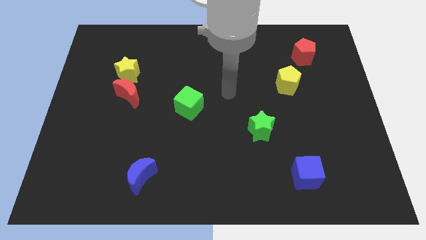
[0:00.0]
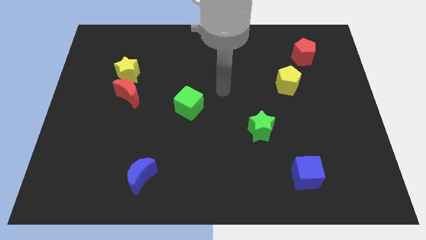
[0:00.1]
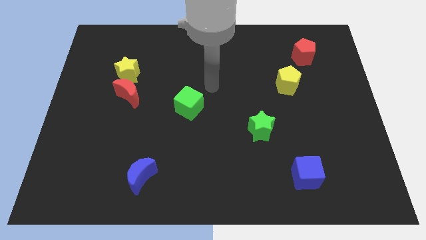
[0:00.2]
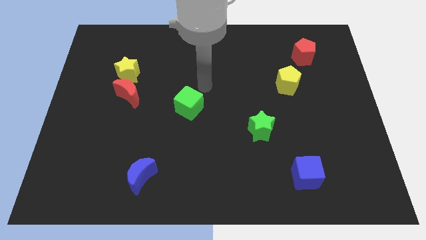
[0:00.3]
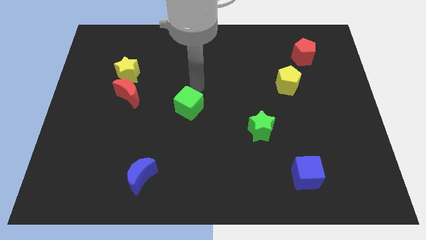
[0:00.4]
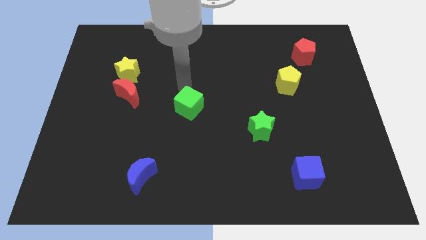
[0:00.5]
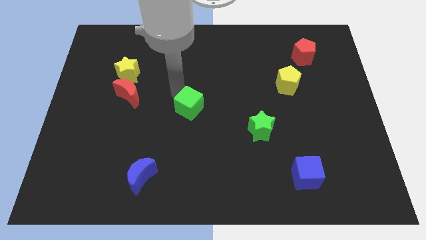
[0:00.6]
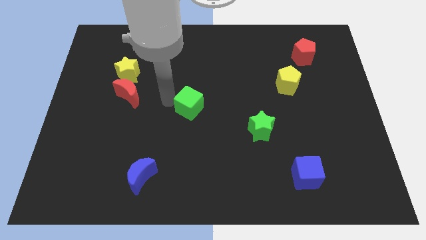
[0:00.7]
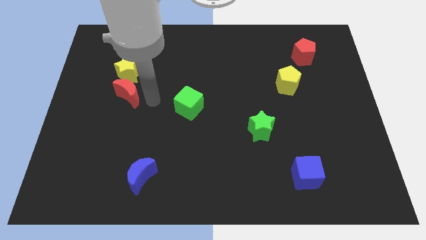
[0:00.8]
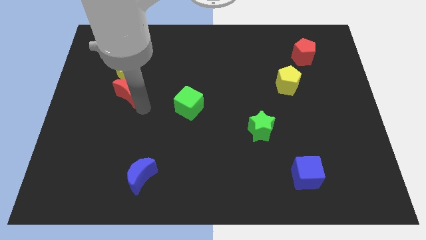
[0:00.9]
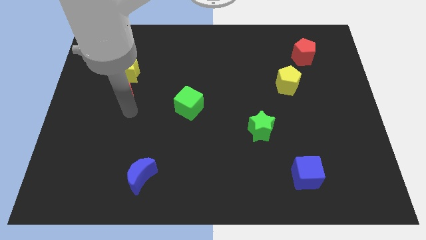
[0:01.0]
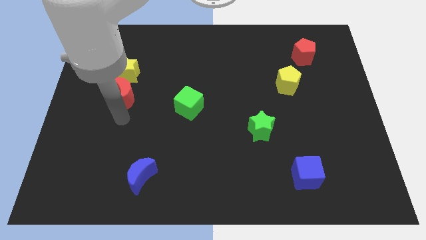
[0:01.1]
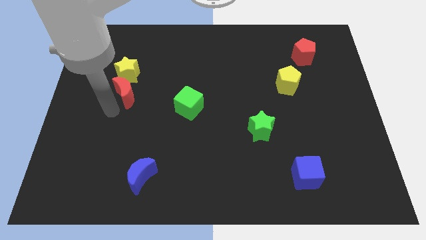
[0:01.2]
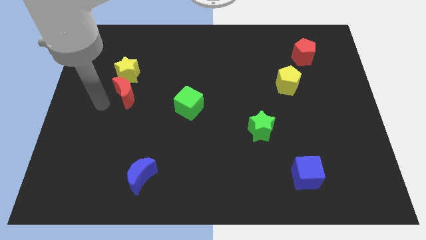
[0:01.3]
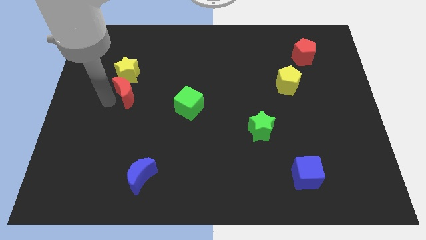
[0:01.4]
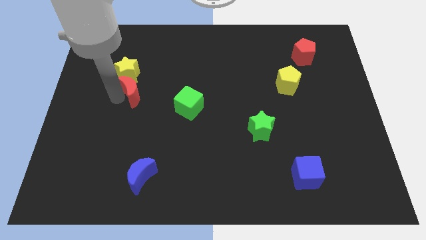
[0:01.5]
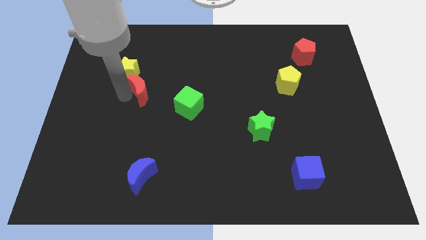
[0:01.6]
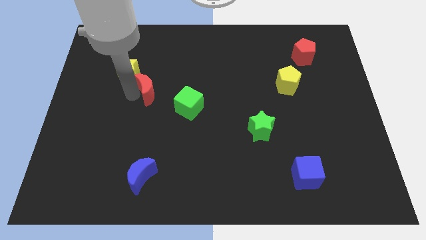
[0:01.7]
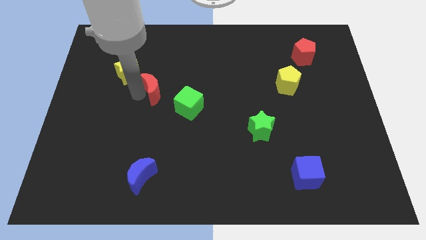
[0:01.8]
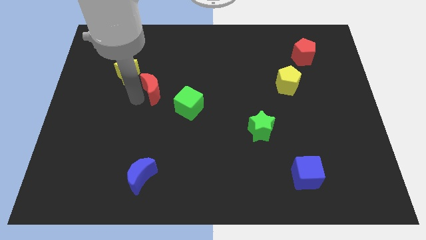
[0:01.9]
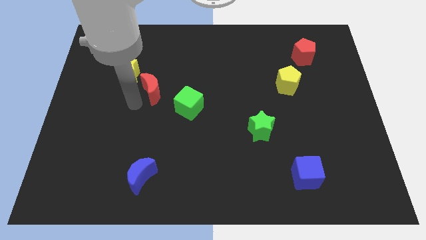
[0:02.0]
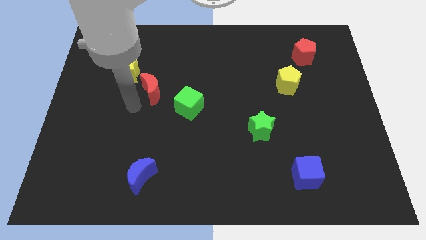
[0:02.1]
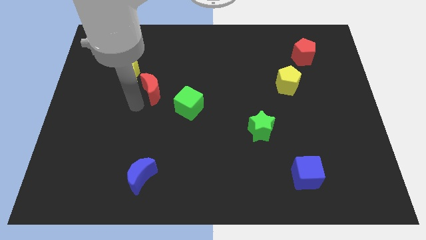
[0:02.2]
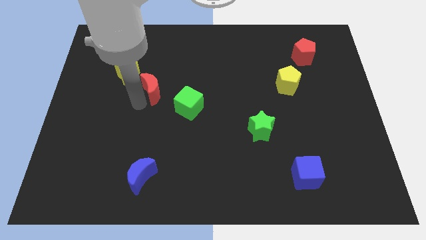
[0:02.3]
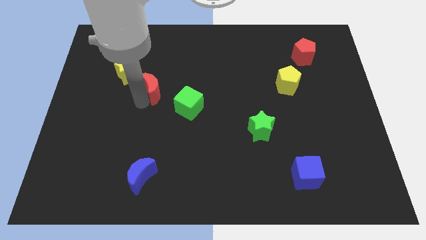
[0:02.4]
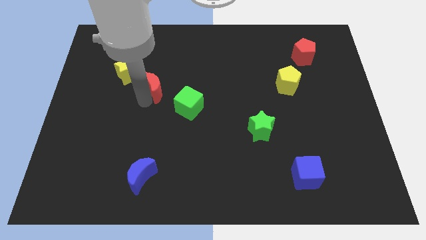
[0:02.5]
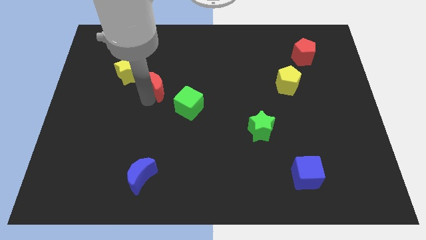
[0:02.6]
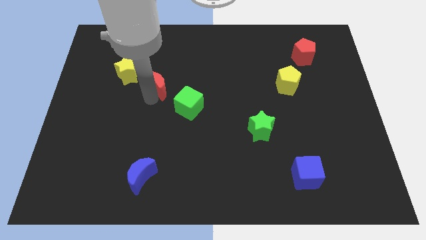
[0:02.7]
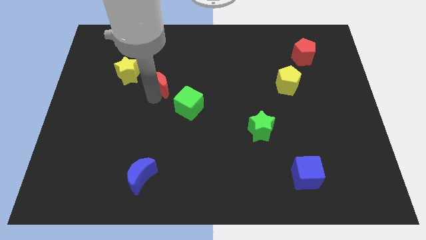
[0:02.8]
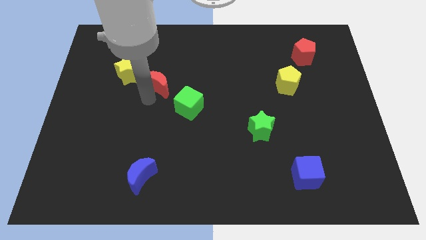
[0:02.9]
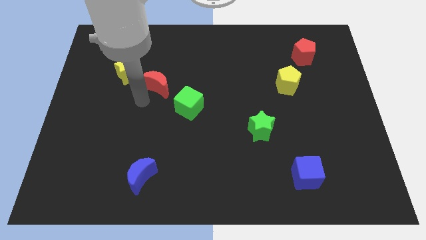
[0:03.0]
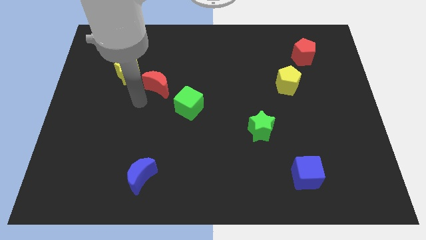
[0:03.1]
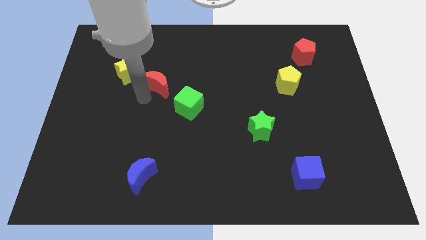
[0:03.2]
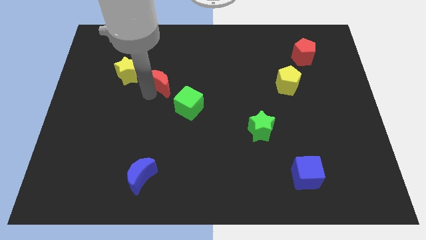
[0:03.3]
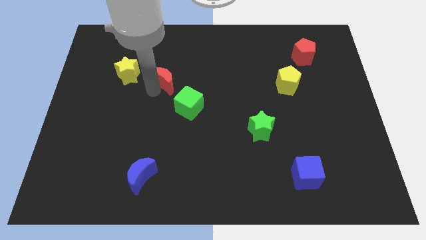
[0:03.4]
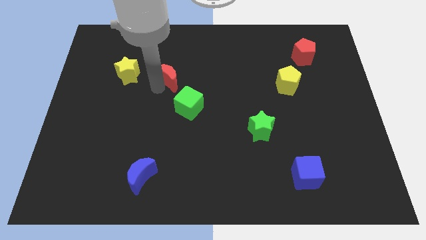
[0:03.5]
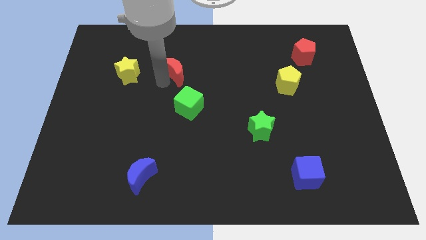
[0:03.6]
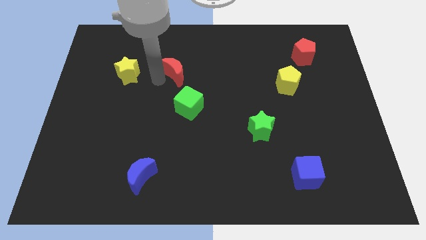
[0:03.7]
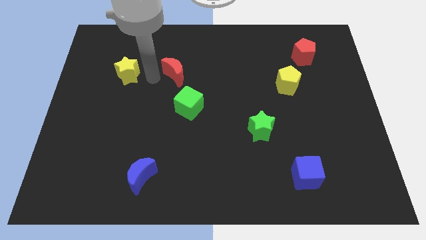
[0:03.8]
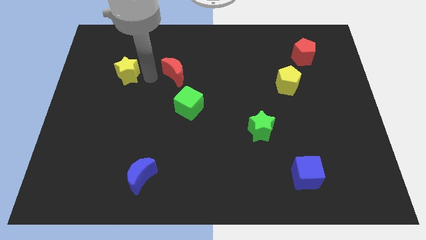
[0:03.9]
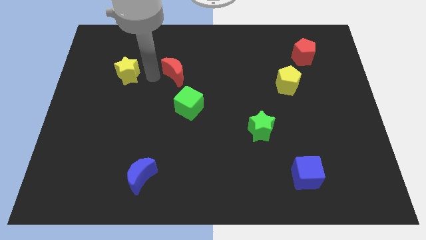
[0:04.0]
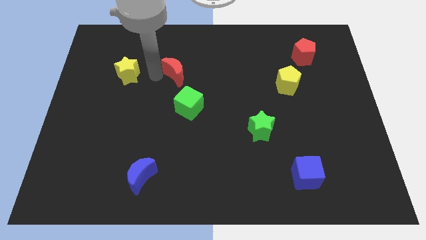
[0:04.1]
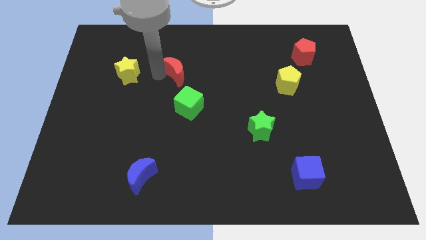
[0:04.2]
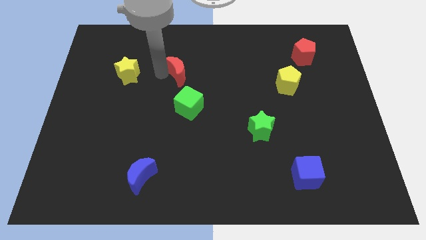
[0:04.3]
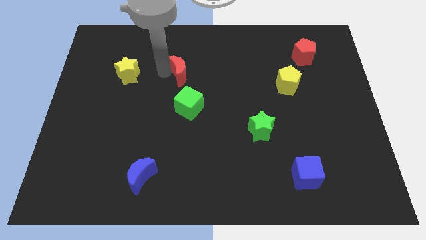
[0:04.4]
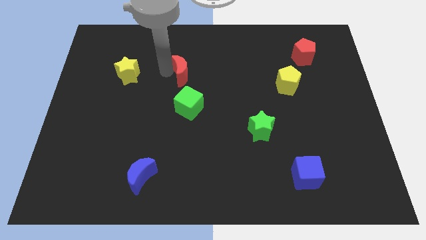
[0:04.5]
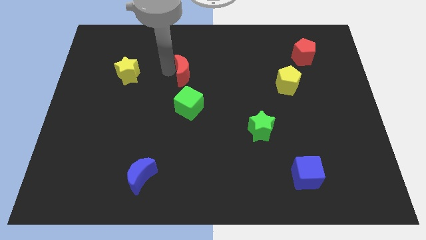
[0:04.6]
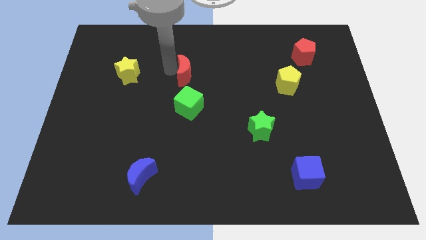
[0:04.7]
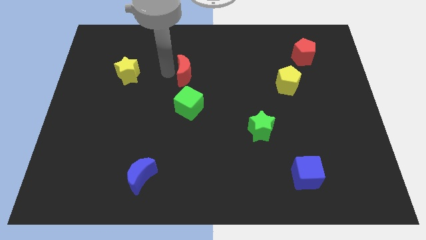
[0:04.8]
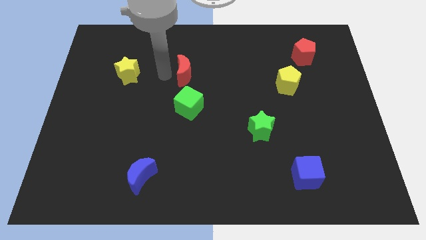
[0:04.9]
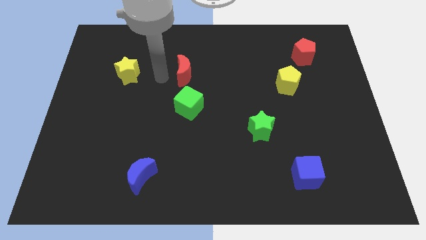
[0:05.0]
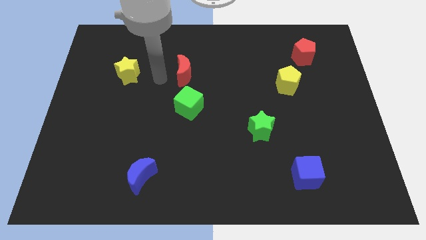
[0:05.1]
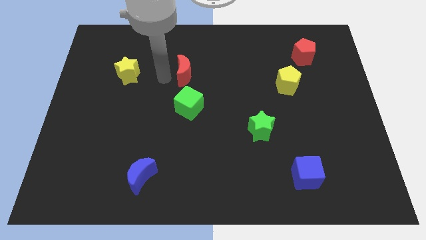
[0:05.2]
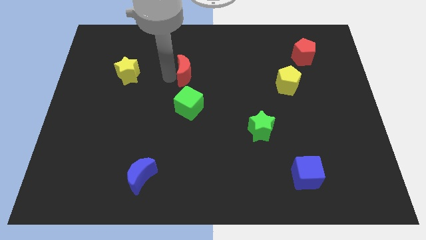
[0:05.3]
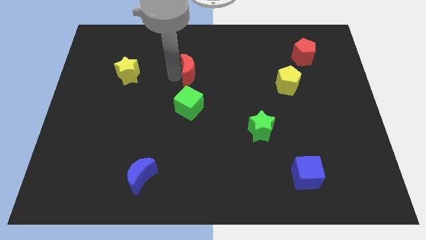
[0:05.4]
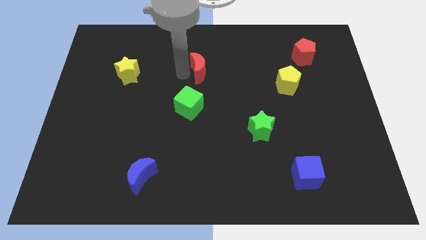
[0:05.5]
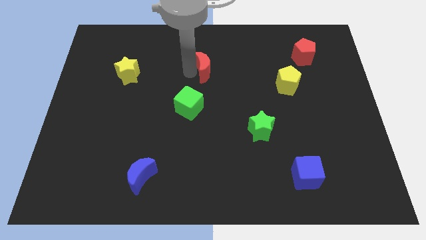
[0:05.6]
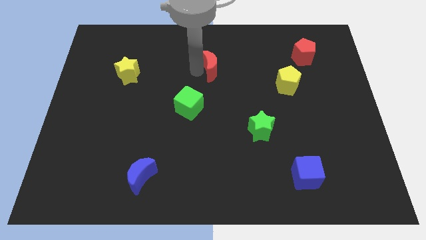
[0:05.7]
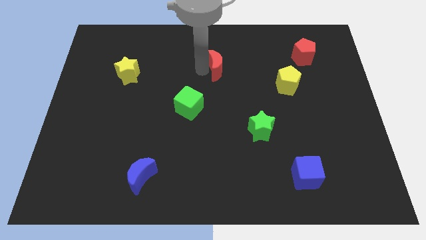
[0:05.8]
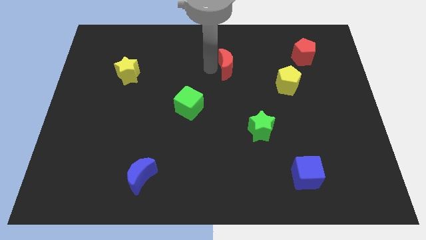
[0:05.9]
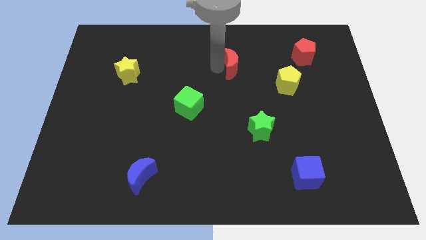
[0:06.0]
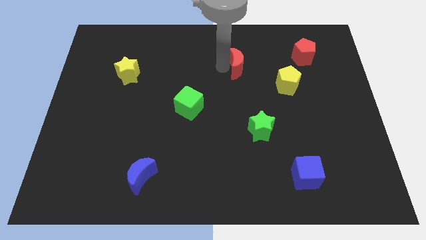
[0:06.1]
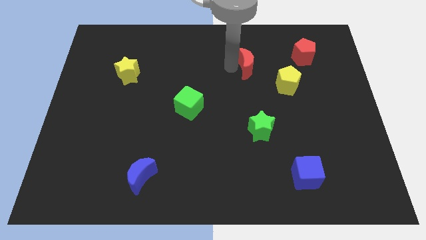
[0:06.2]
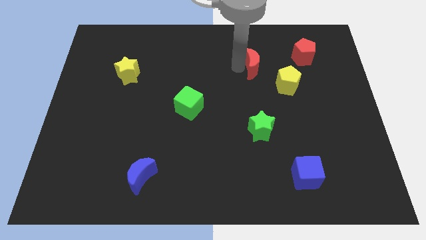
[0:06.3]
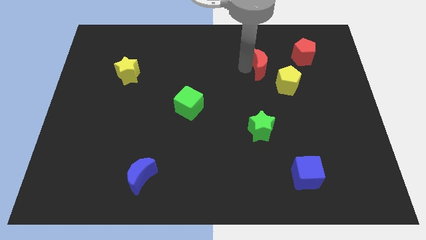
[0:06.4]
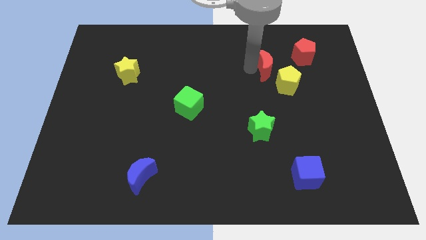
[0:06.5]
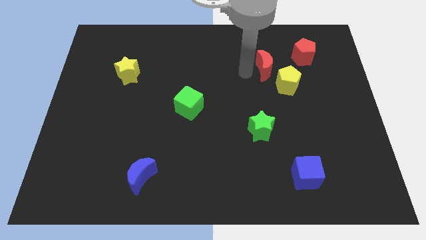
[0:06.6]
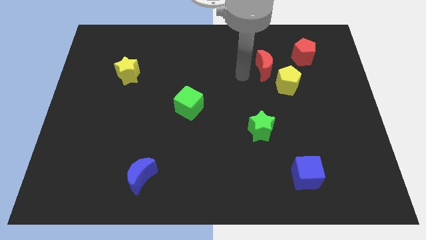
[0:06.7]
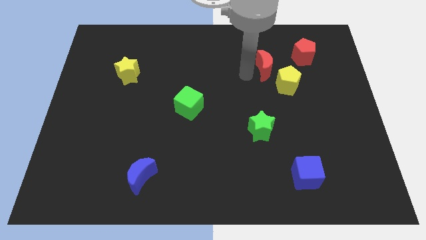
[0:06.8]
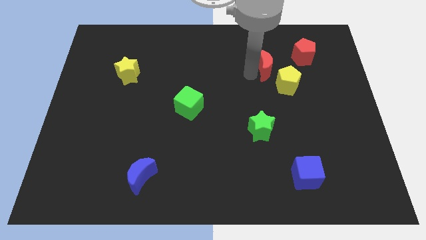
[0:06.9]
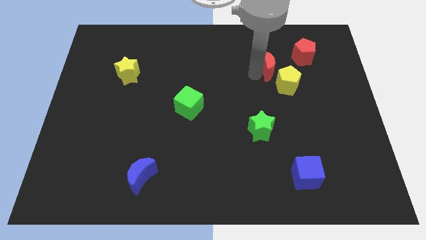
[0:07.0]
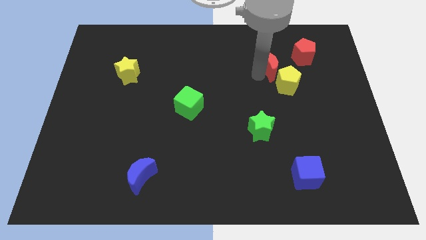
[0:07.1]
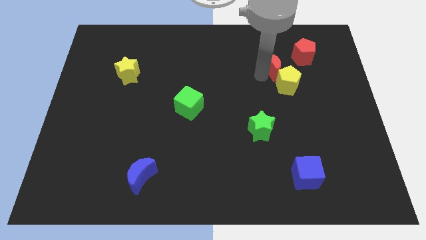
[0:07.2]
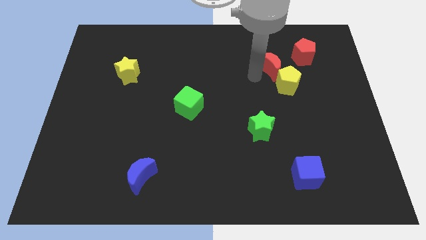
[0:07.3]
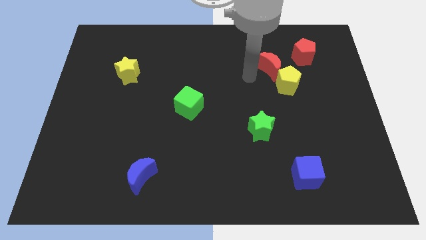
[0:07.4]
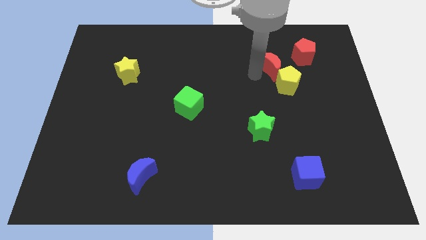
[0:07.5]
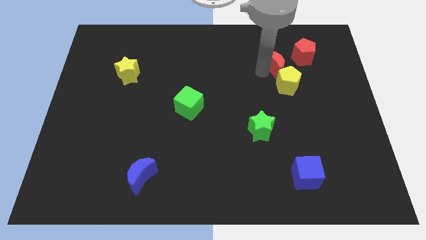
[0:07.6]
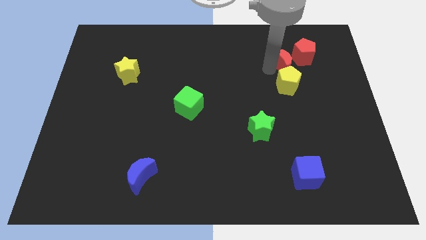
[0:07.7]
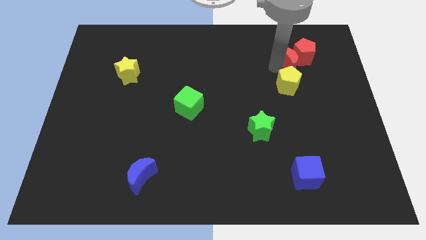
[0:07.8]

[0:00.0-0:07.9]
move the red moon close to the red pentagon
